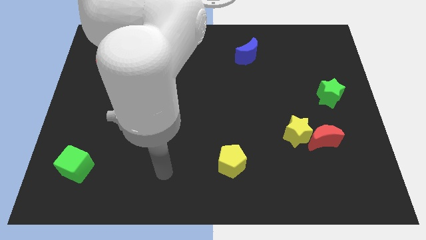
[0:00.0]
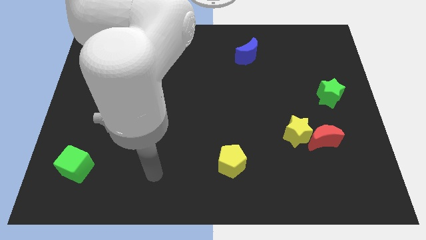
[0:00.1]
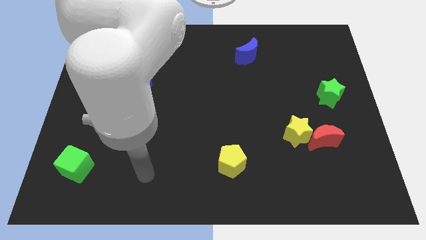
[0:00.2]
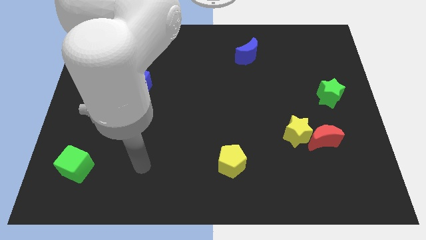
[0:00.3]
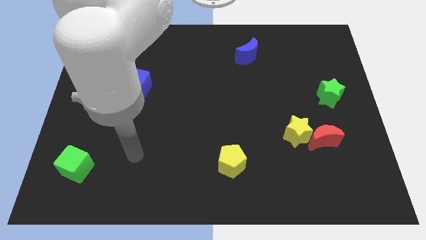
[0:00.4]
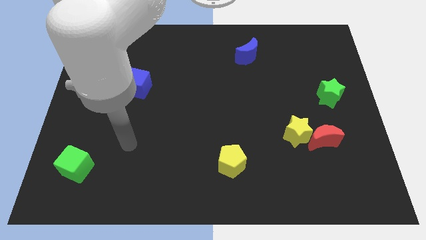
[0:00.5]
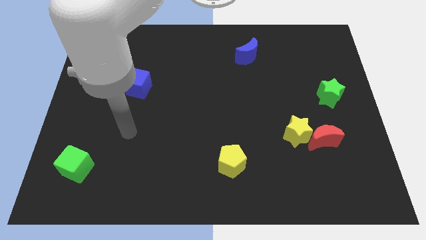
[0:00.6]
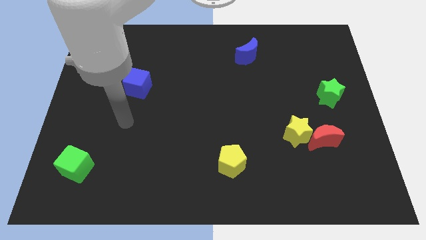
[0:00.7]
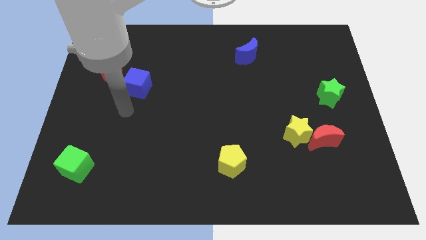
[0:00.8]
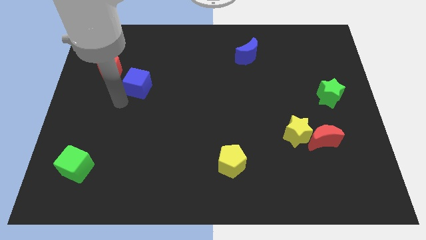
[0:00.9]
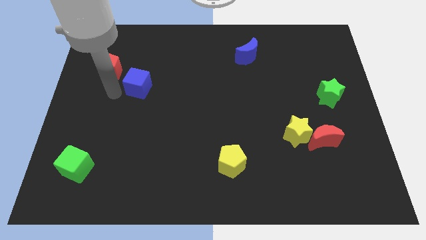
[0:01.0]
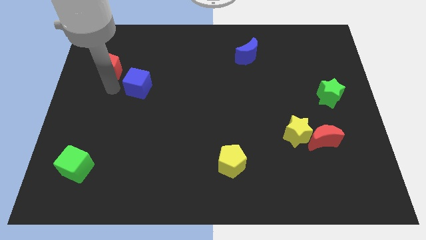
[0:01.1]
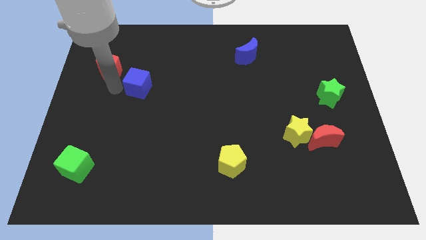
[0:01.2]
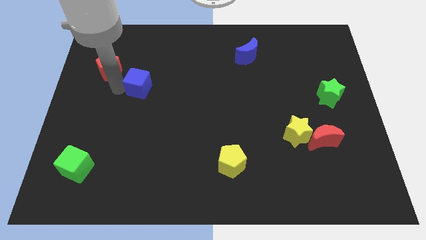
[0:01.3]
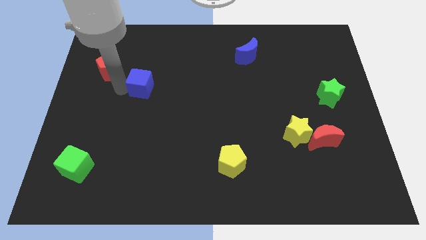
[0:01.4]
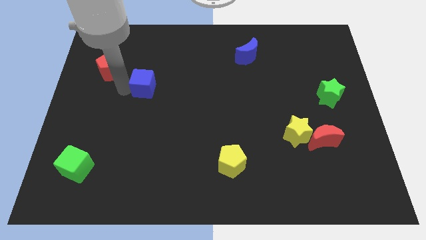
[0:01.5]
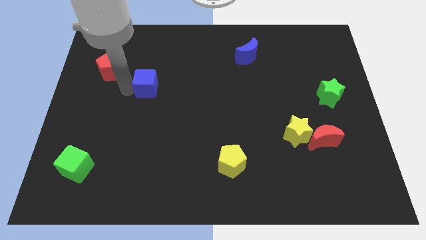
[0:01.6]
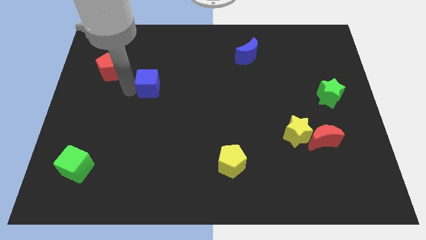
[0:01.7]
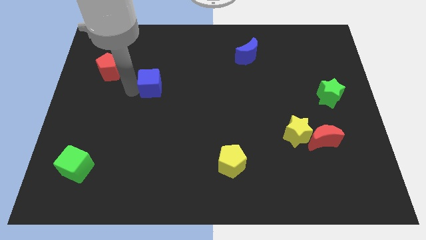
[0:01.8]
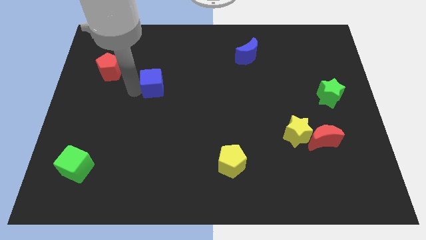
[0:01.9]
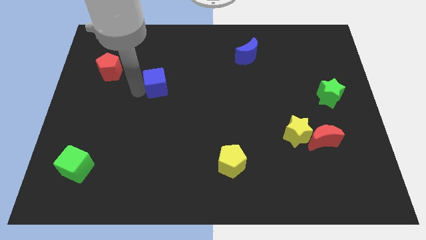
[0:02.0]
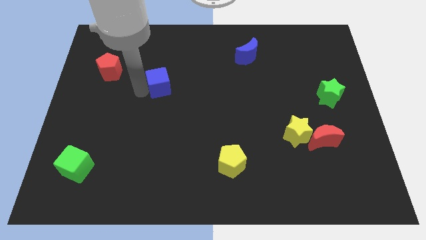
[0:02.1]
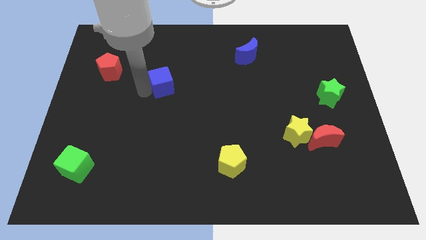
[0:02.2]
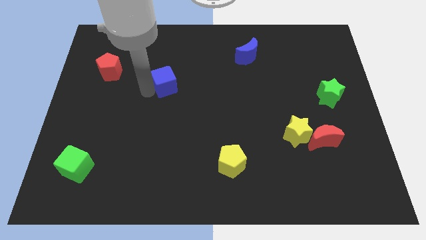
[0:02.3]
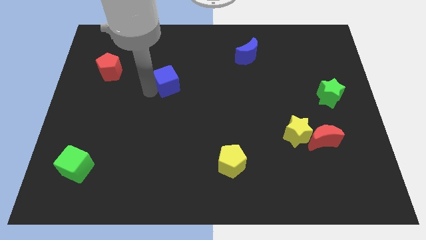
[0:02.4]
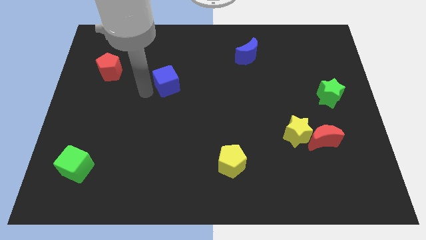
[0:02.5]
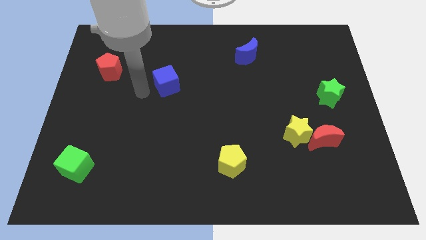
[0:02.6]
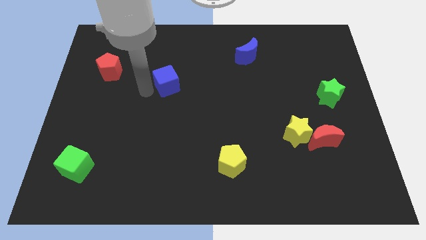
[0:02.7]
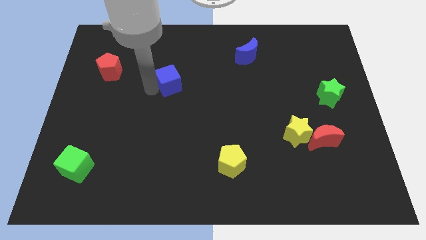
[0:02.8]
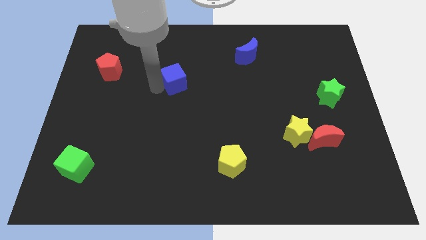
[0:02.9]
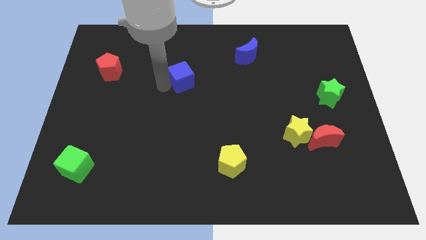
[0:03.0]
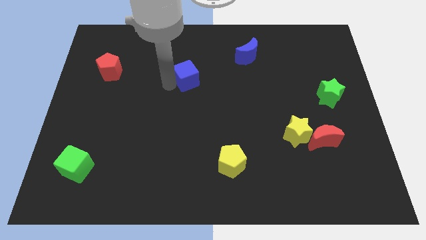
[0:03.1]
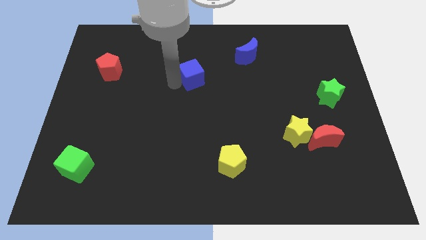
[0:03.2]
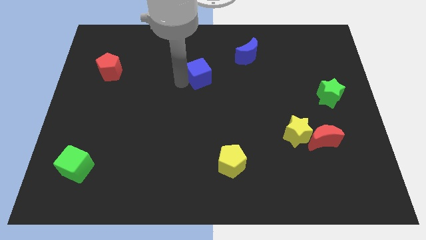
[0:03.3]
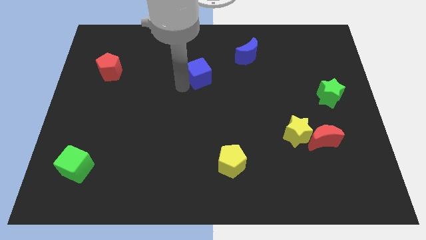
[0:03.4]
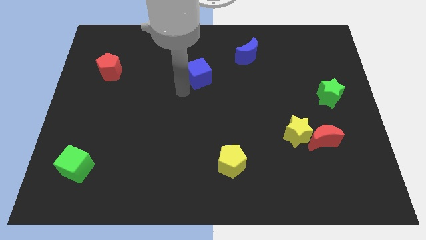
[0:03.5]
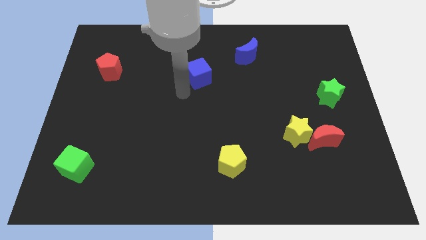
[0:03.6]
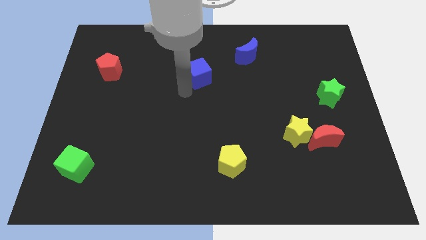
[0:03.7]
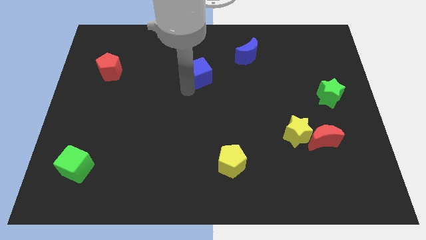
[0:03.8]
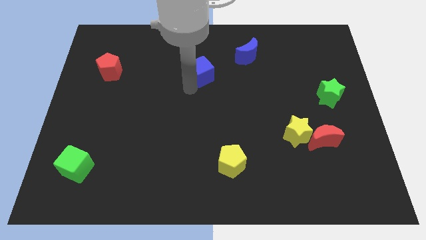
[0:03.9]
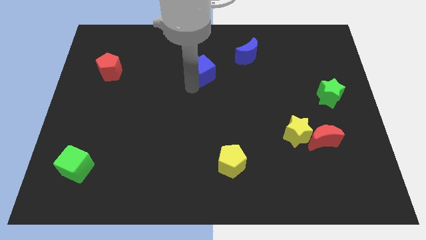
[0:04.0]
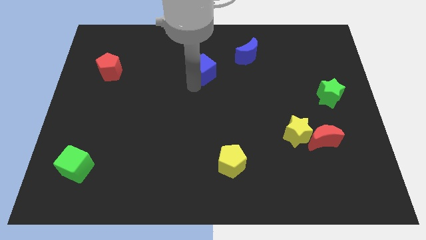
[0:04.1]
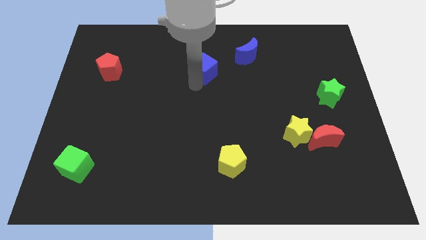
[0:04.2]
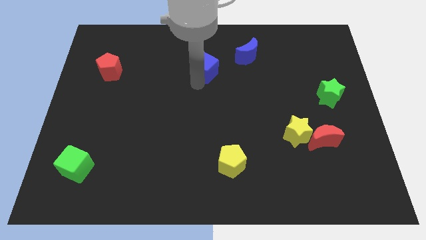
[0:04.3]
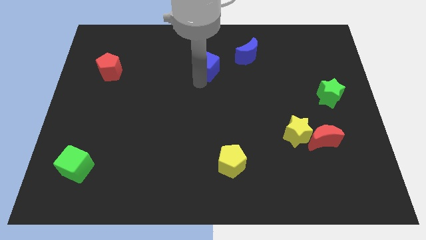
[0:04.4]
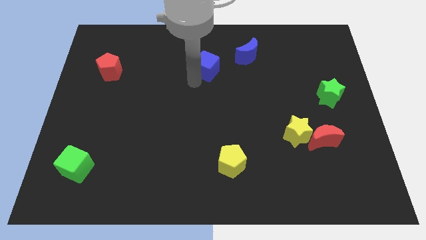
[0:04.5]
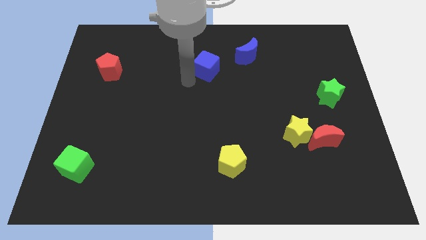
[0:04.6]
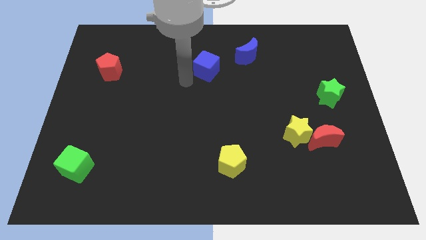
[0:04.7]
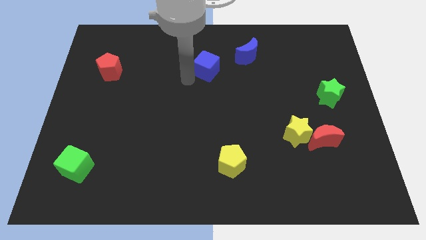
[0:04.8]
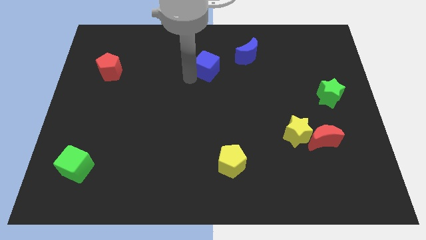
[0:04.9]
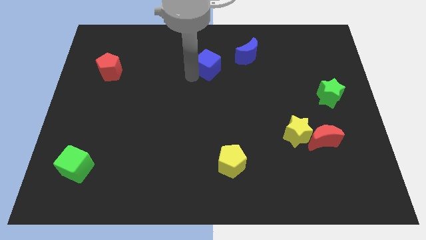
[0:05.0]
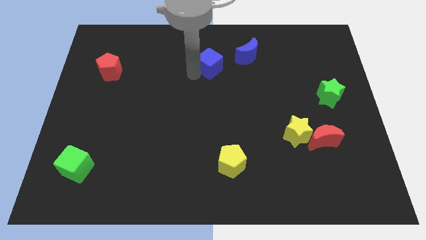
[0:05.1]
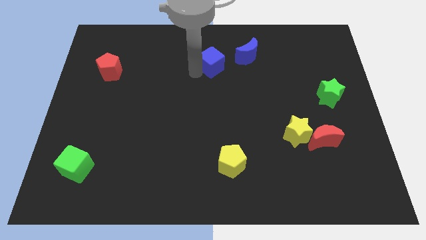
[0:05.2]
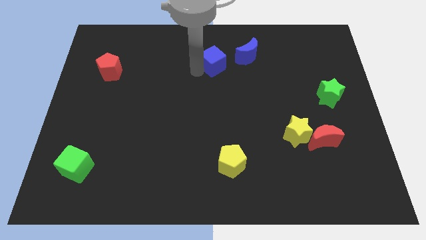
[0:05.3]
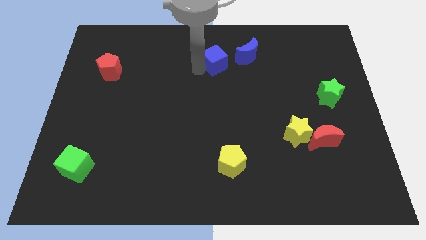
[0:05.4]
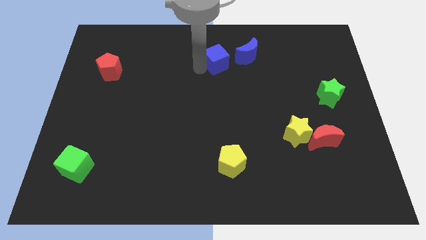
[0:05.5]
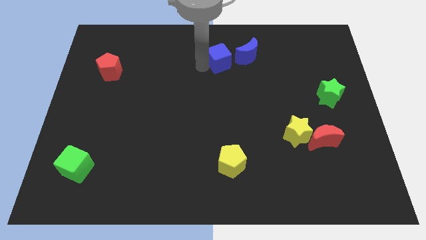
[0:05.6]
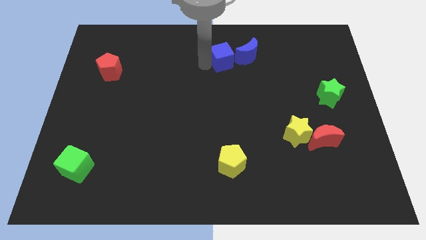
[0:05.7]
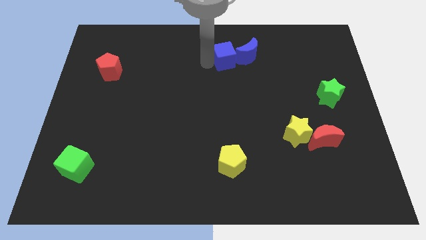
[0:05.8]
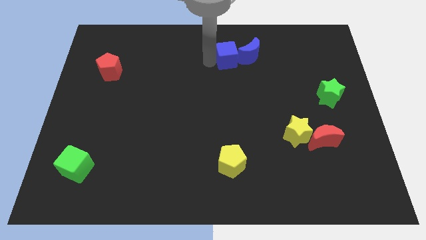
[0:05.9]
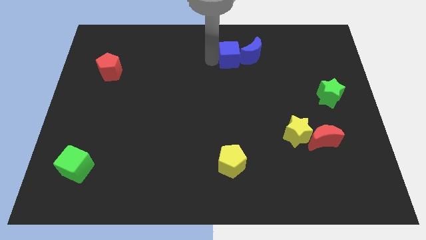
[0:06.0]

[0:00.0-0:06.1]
put the blue cube towards the blue moon
